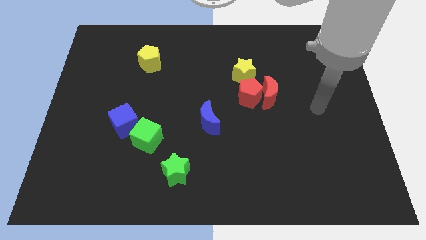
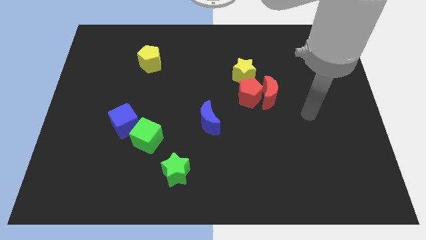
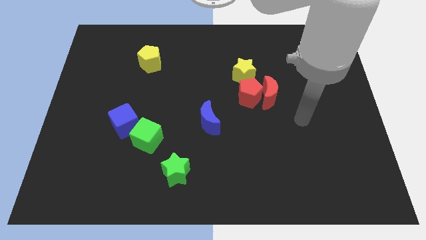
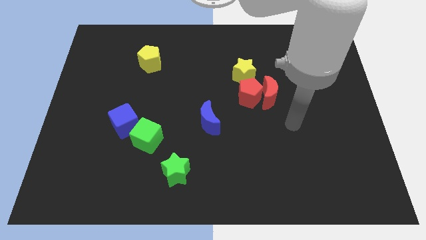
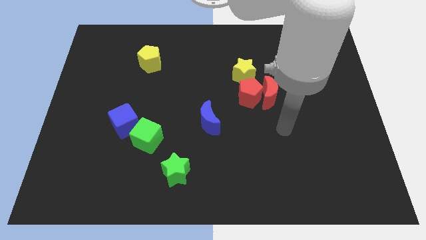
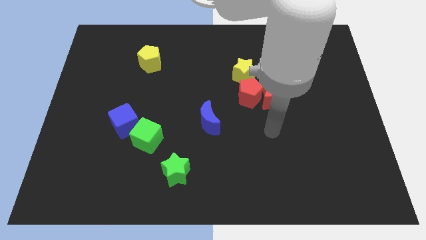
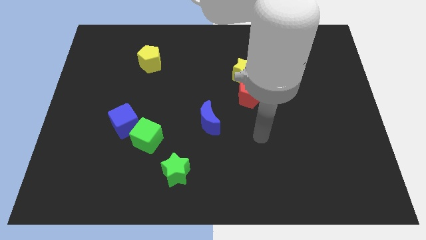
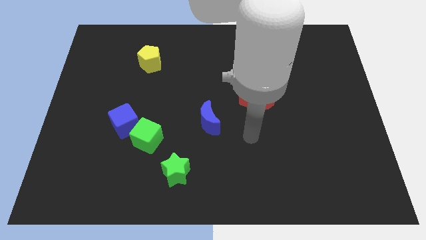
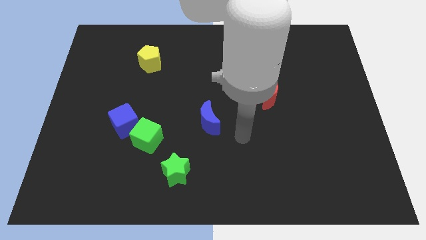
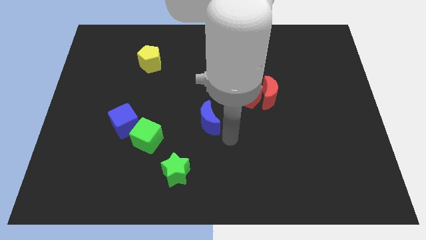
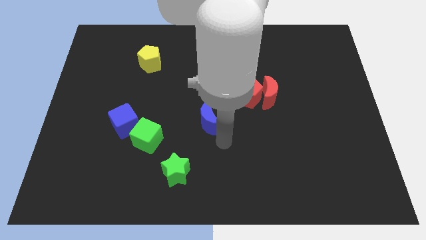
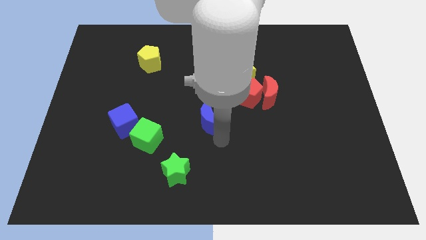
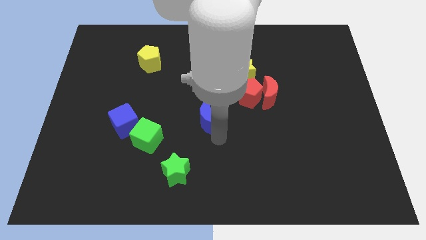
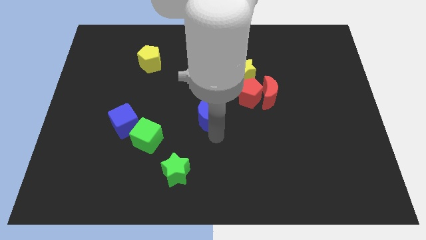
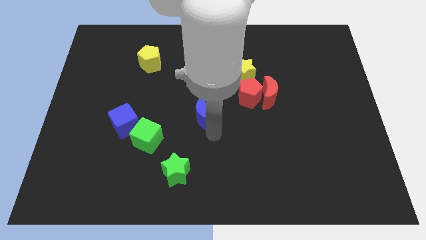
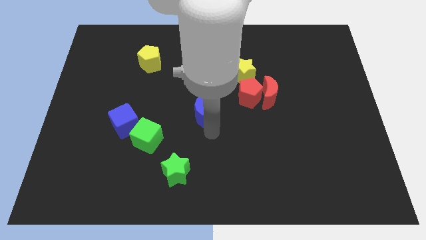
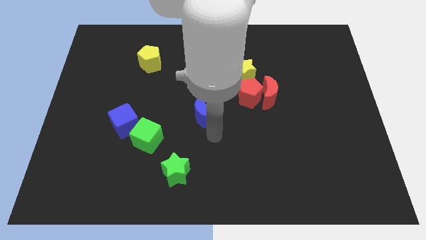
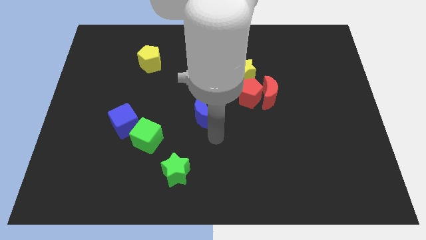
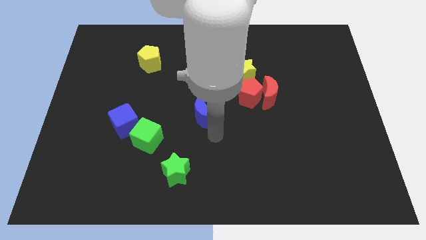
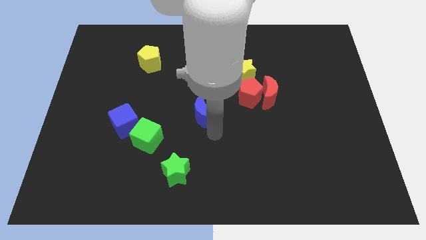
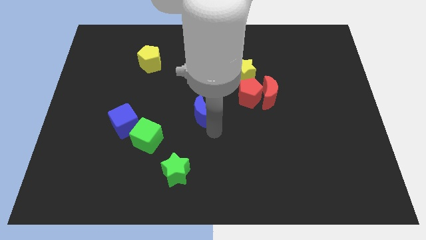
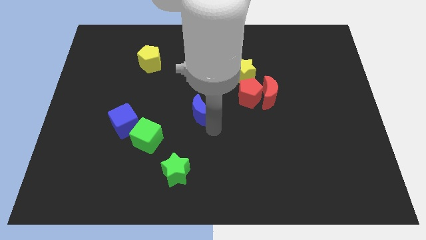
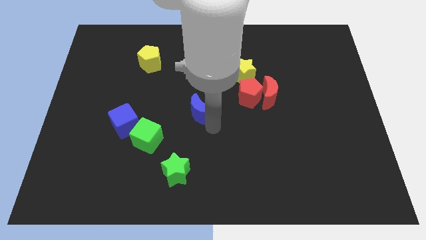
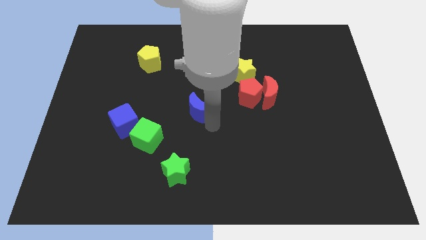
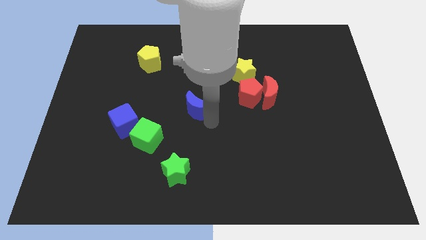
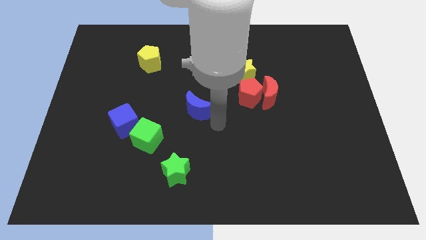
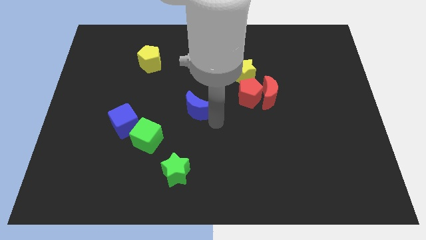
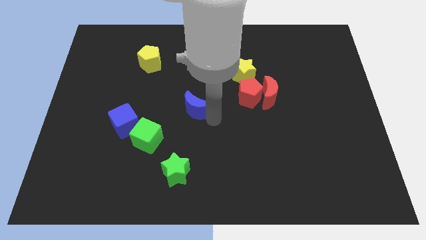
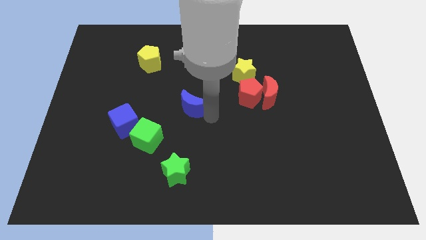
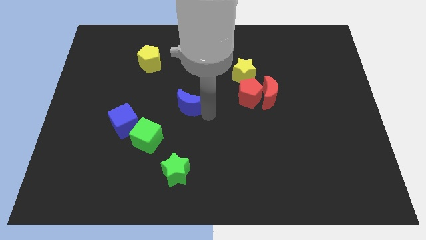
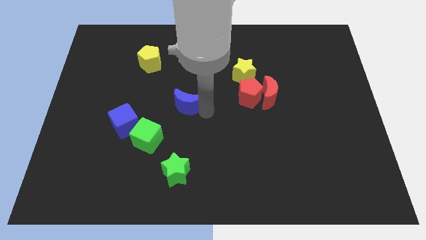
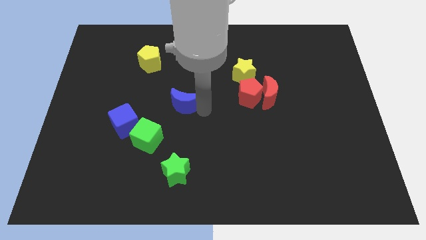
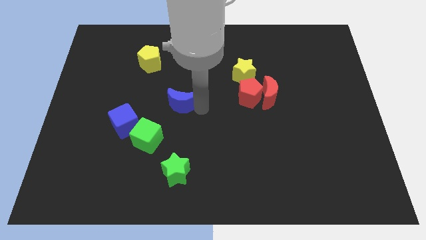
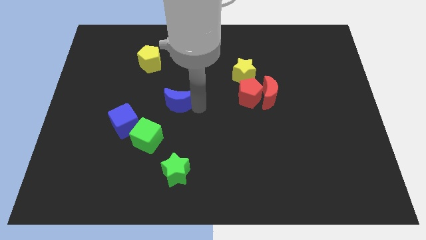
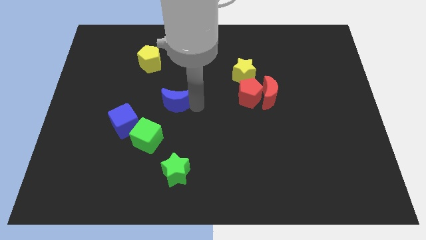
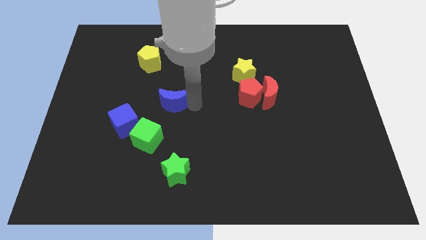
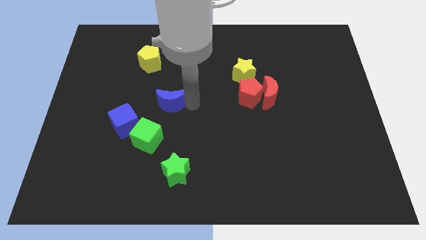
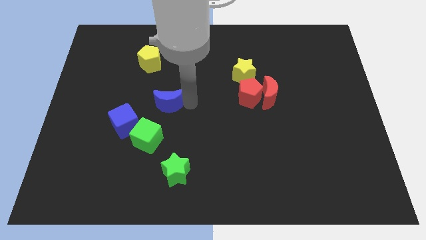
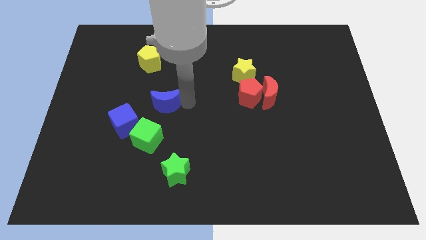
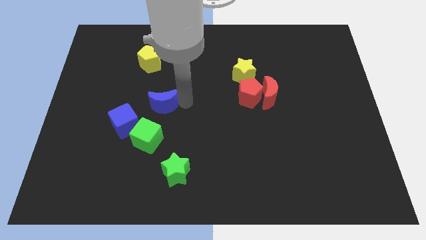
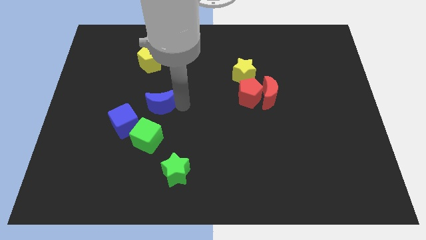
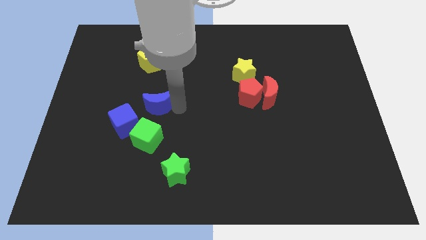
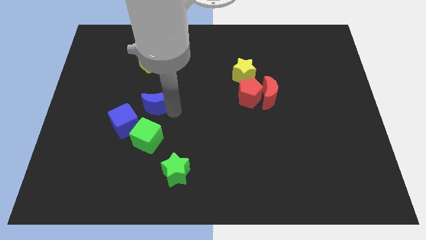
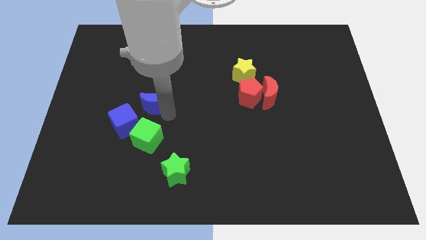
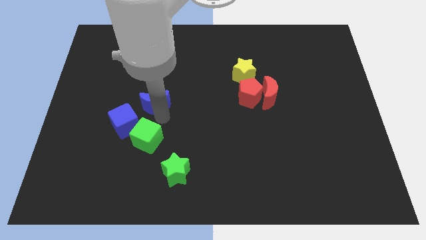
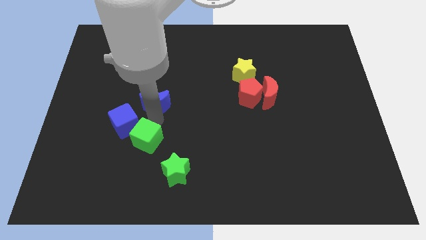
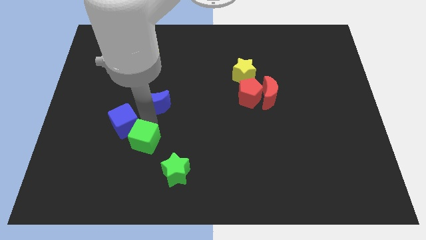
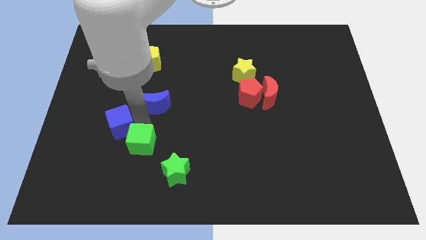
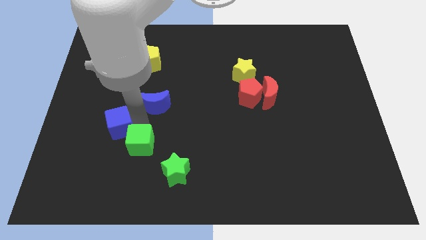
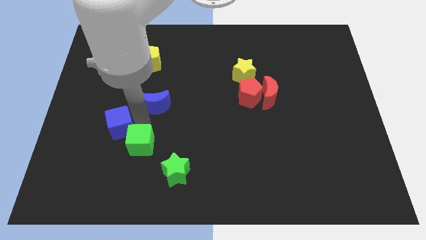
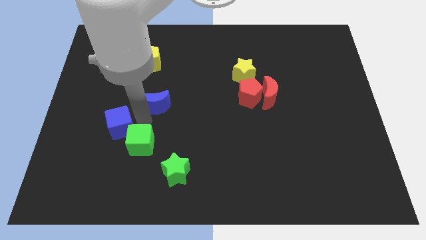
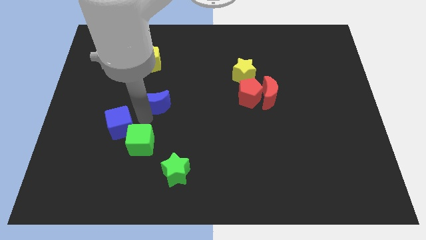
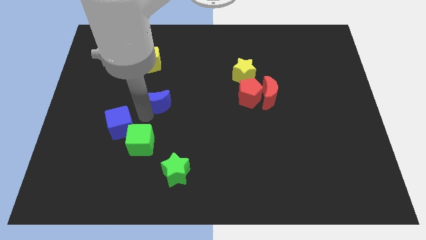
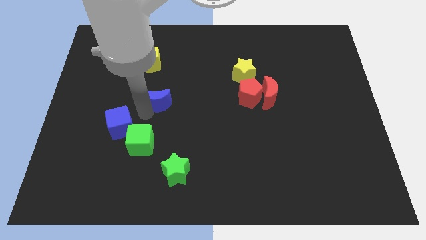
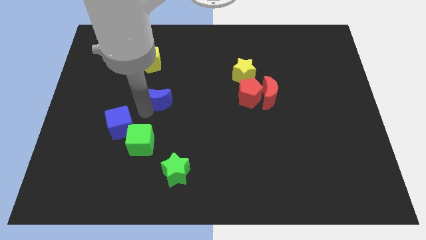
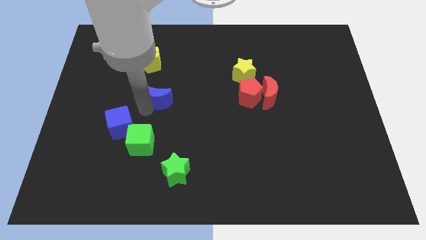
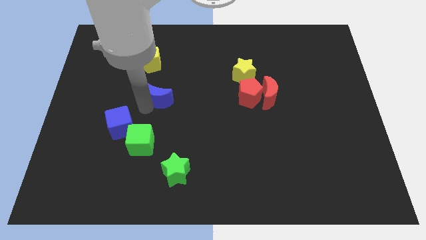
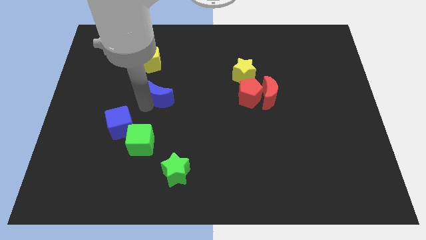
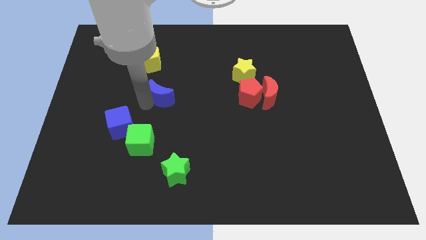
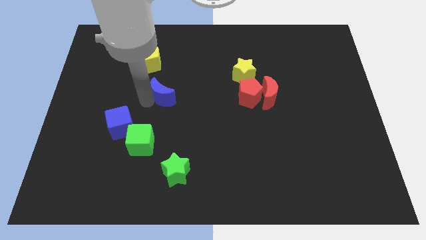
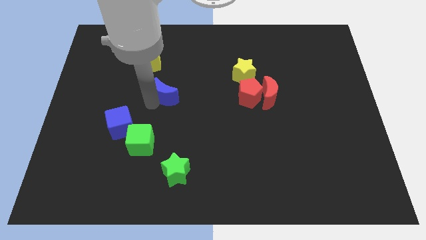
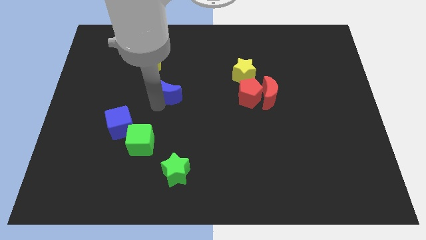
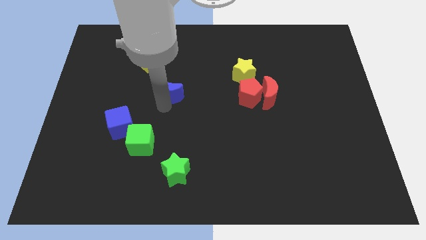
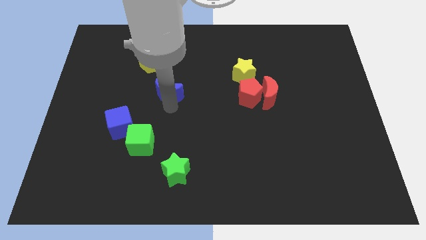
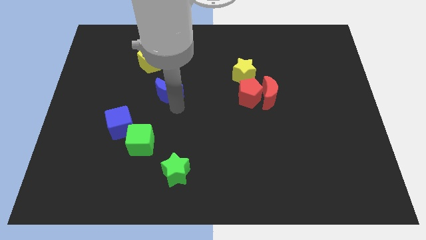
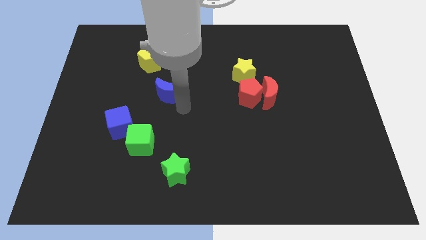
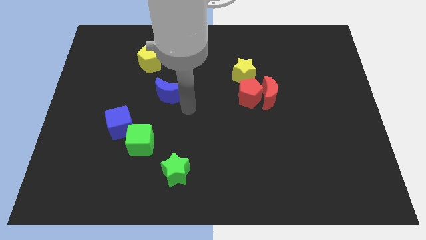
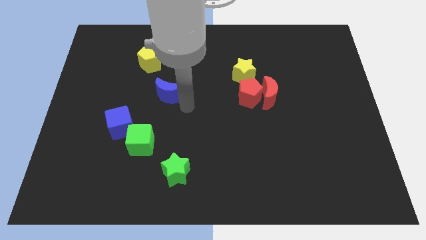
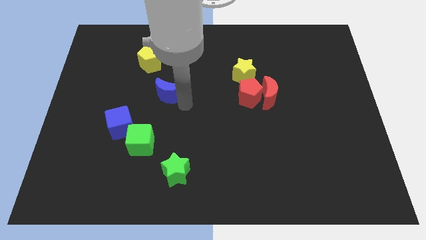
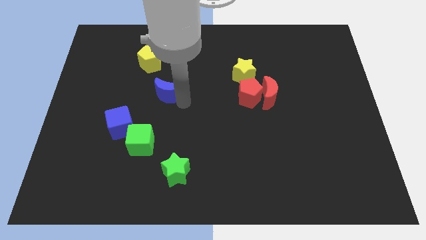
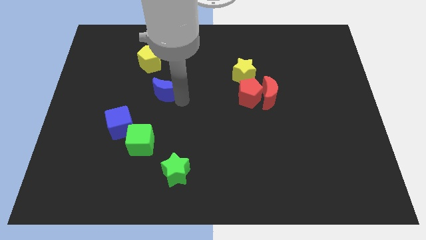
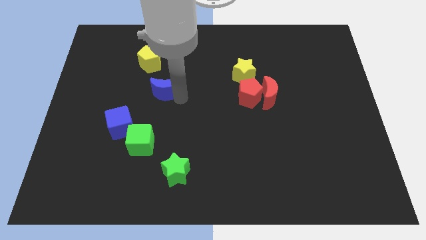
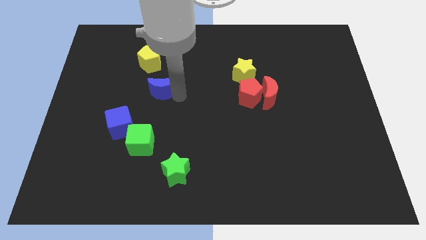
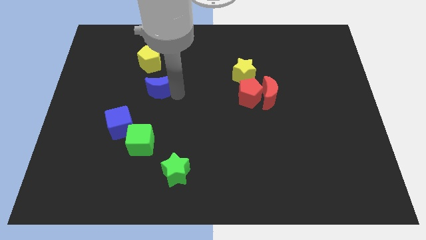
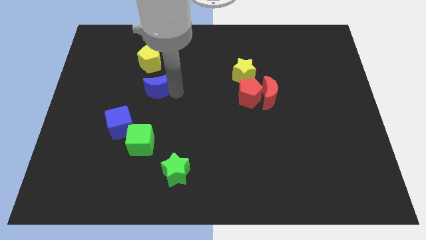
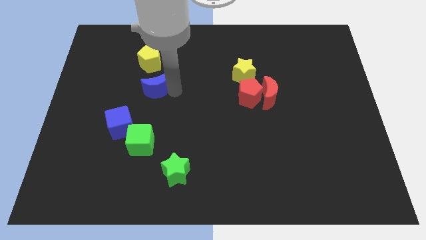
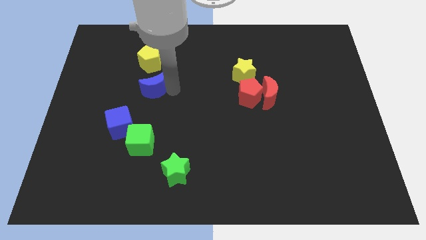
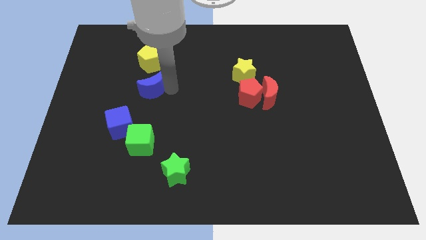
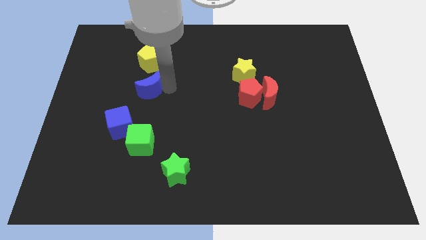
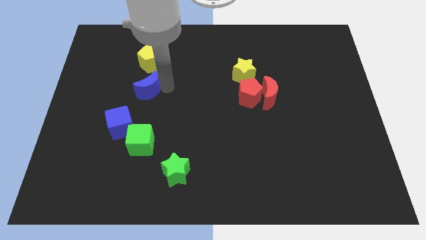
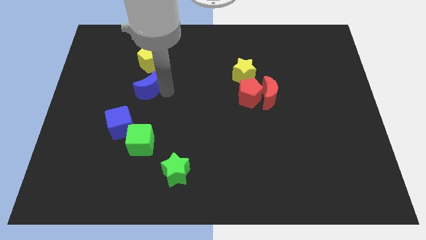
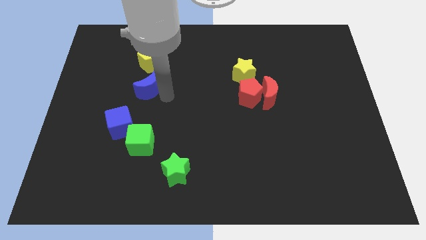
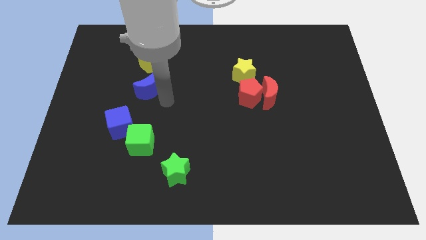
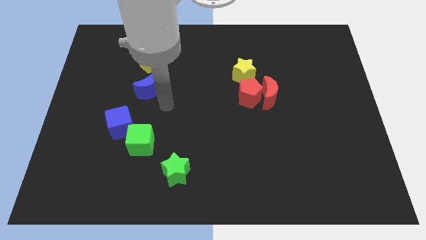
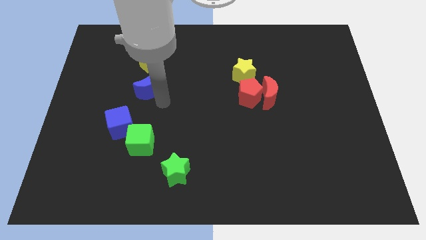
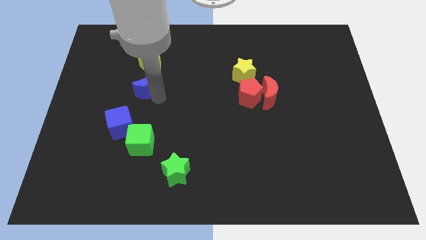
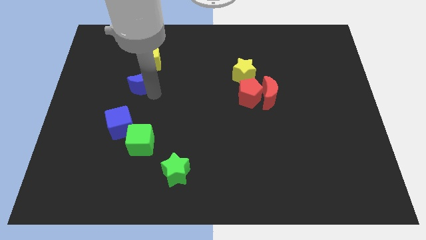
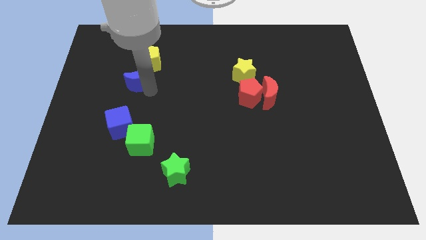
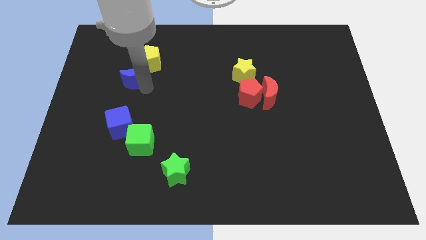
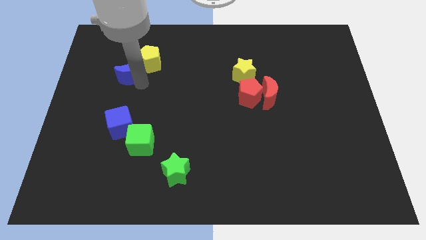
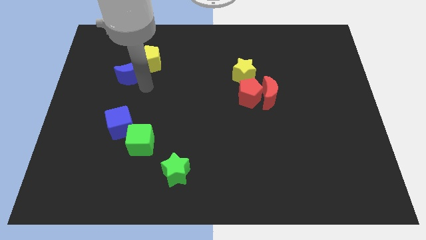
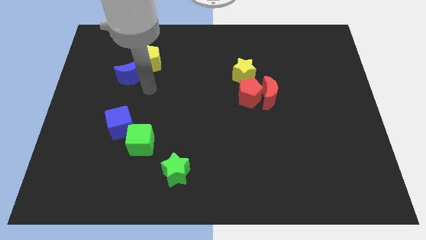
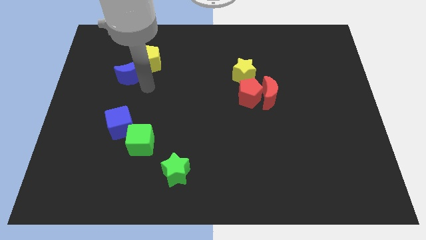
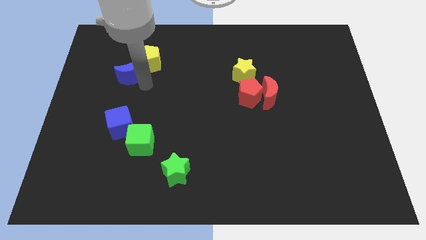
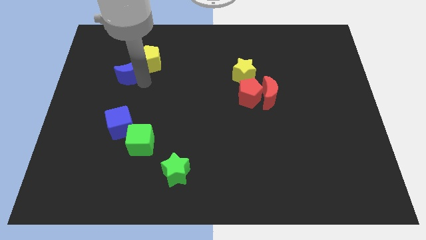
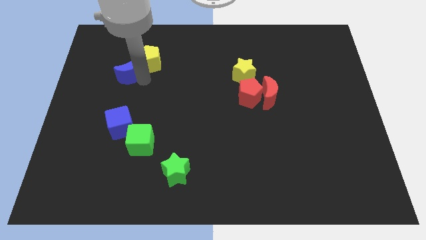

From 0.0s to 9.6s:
put the blue moon to the left side of the yellow pentagon
